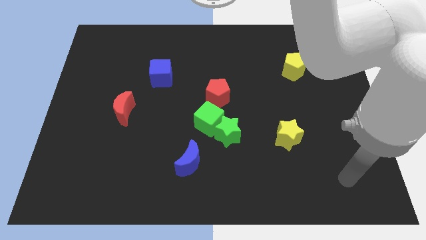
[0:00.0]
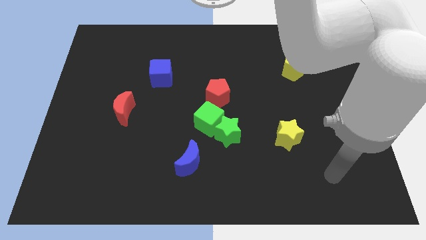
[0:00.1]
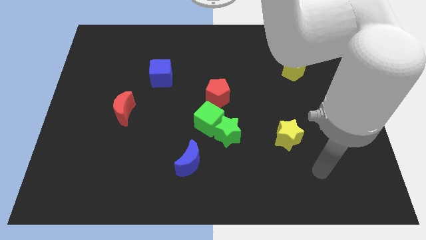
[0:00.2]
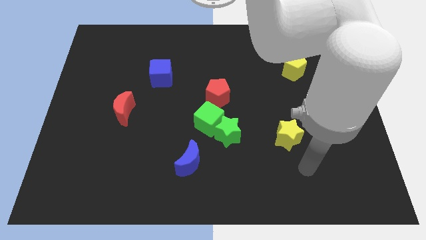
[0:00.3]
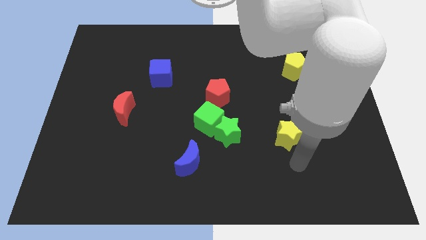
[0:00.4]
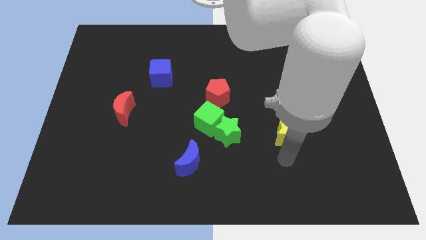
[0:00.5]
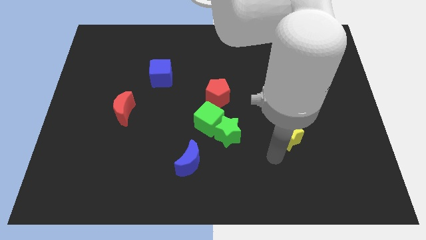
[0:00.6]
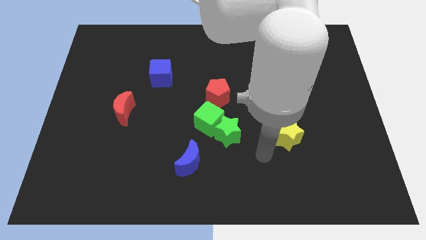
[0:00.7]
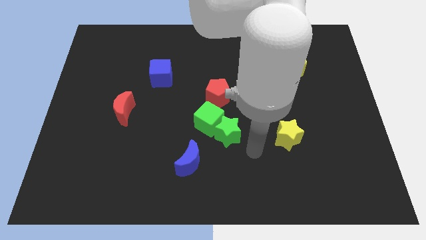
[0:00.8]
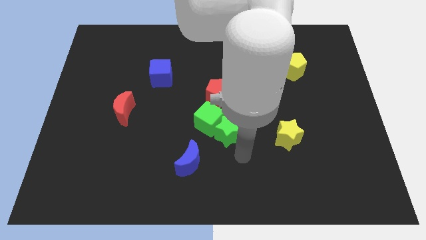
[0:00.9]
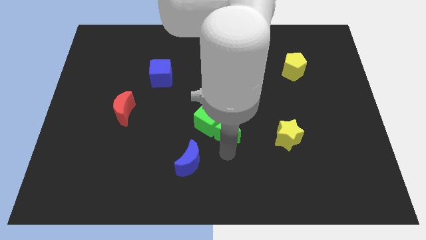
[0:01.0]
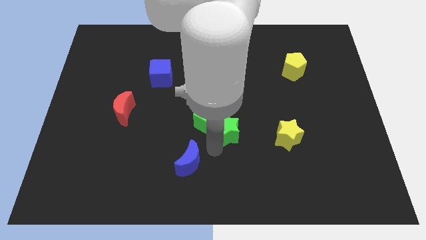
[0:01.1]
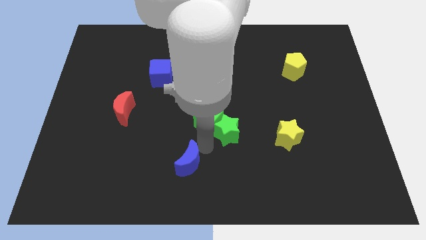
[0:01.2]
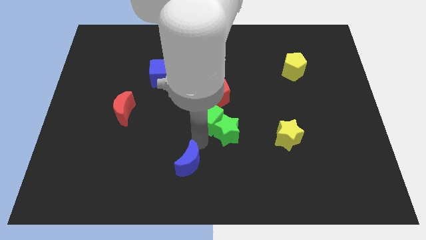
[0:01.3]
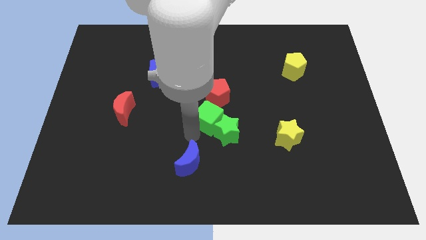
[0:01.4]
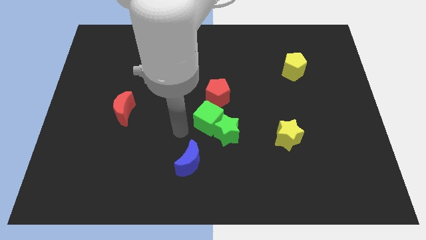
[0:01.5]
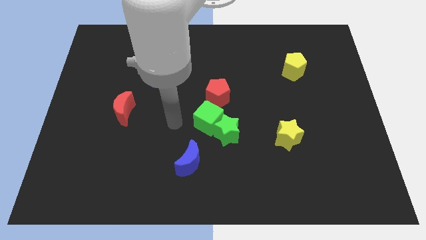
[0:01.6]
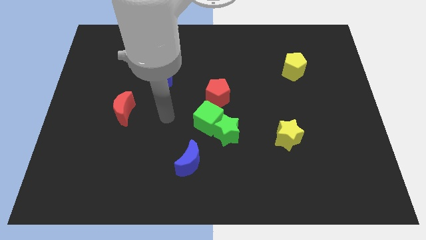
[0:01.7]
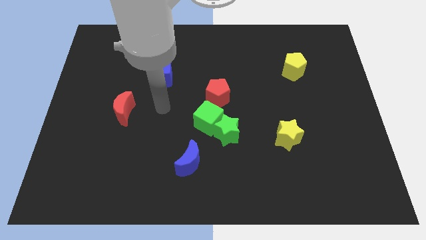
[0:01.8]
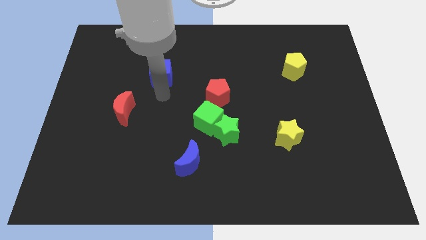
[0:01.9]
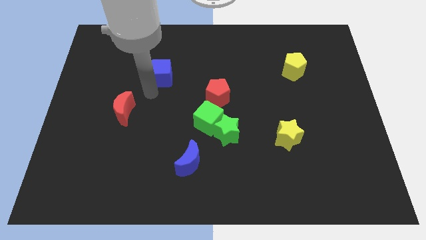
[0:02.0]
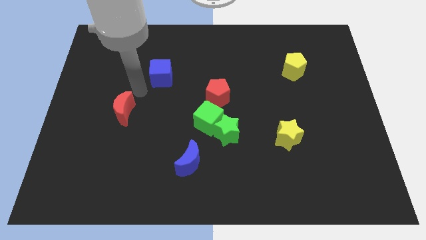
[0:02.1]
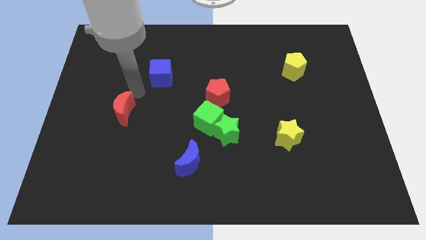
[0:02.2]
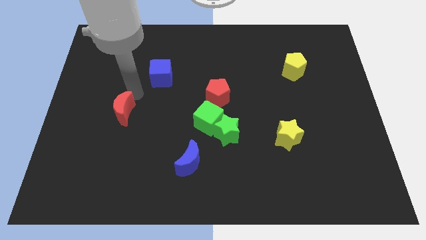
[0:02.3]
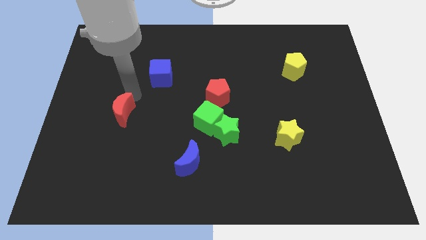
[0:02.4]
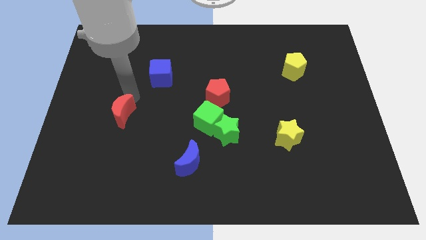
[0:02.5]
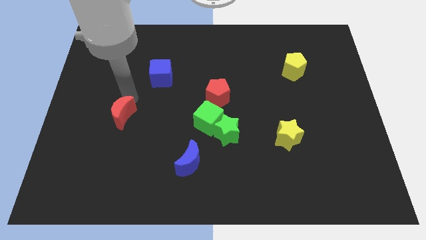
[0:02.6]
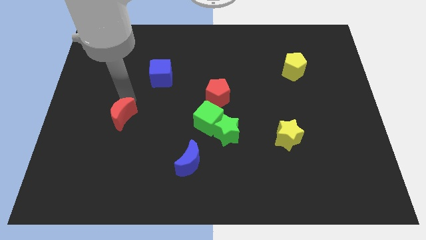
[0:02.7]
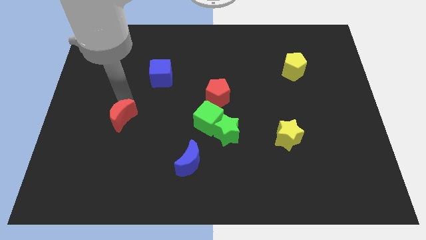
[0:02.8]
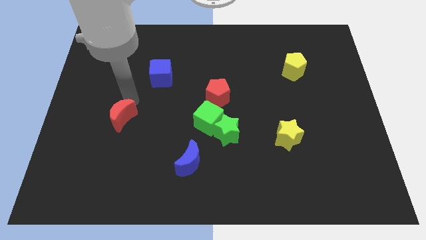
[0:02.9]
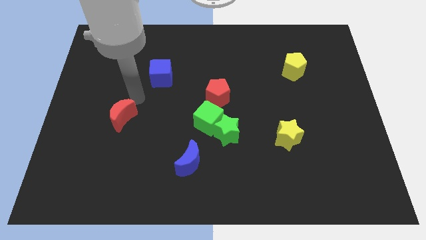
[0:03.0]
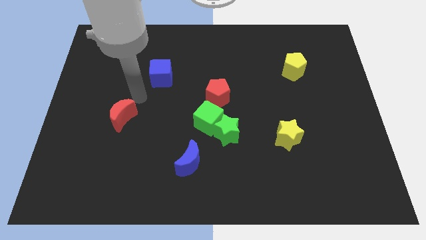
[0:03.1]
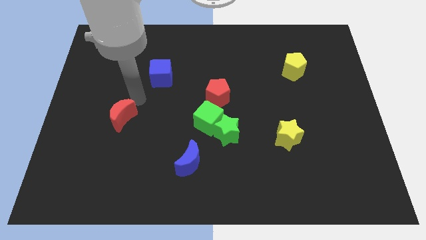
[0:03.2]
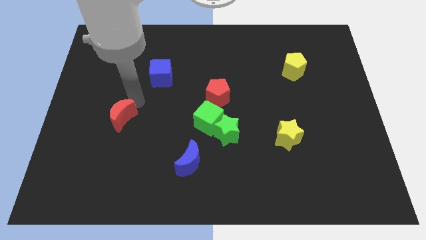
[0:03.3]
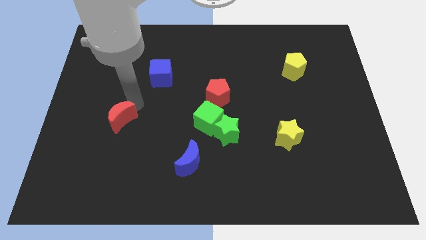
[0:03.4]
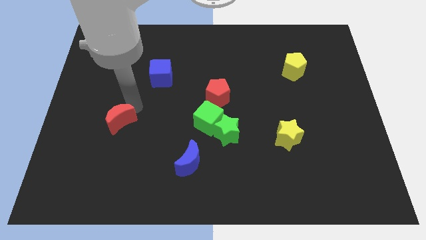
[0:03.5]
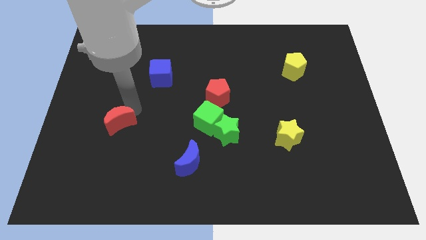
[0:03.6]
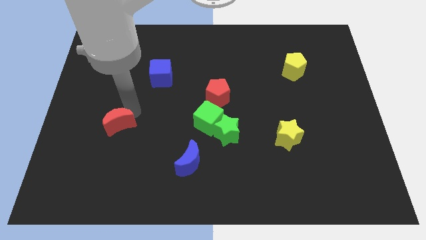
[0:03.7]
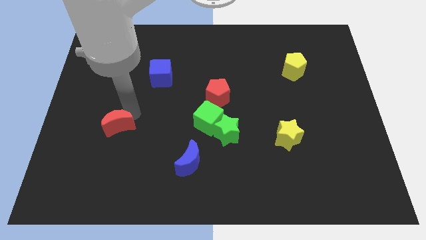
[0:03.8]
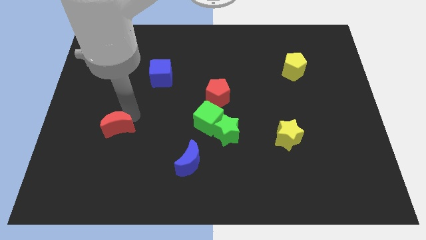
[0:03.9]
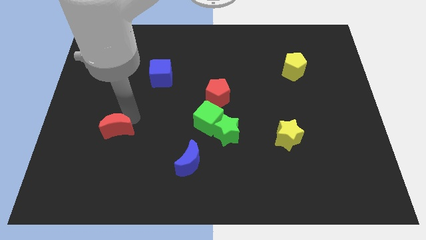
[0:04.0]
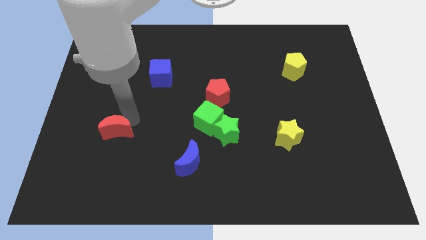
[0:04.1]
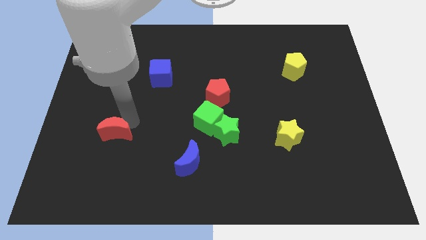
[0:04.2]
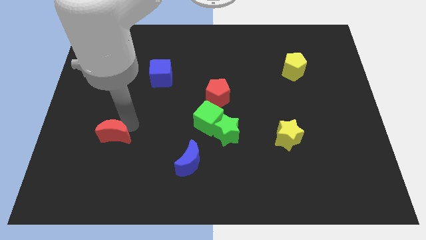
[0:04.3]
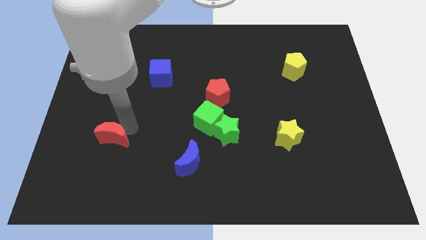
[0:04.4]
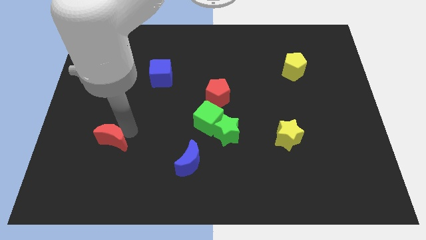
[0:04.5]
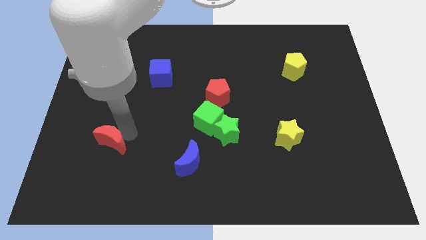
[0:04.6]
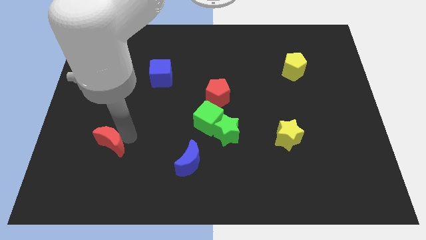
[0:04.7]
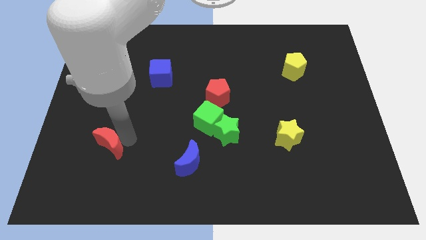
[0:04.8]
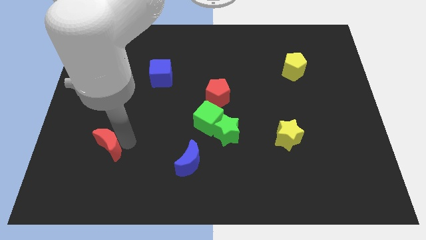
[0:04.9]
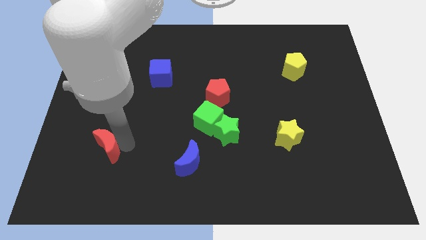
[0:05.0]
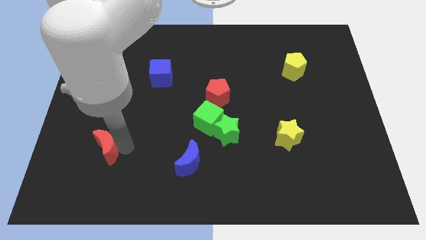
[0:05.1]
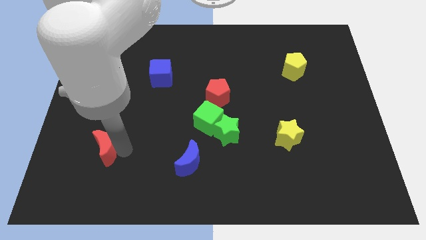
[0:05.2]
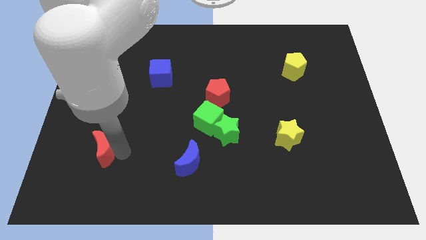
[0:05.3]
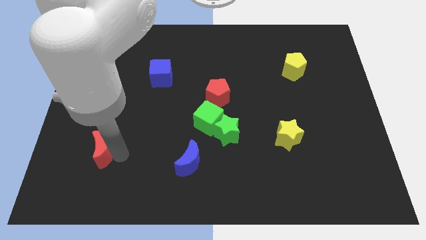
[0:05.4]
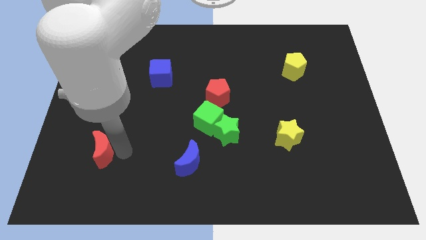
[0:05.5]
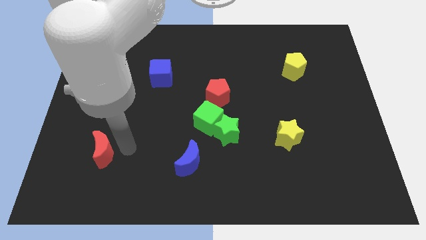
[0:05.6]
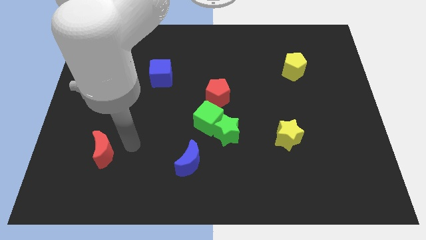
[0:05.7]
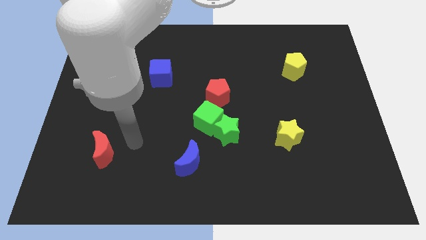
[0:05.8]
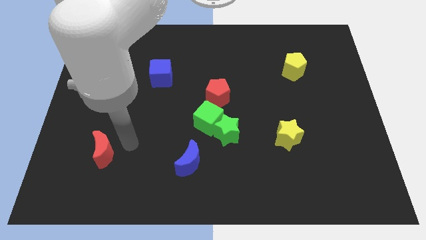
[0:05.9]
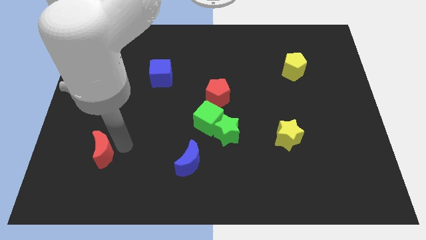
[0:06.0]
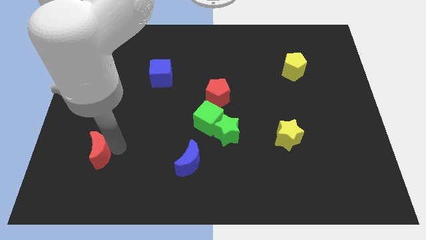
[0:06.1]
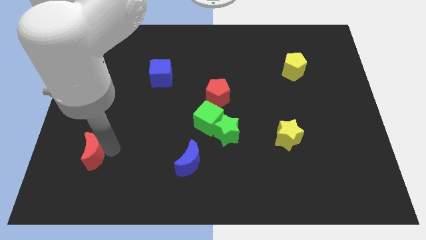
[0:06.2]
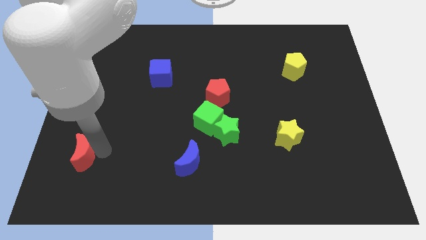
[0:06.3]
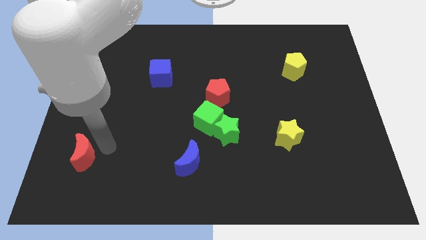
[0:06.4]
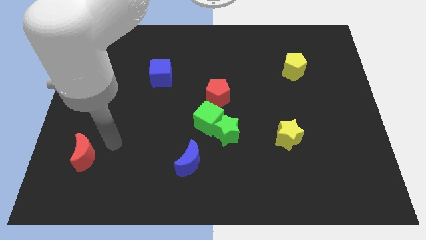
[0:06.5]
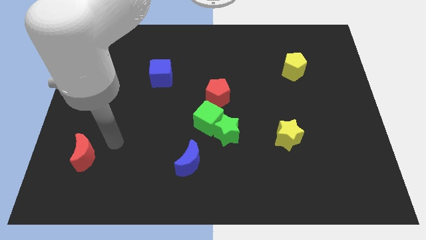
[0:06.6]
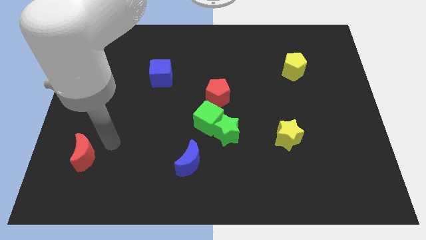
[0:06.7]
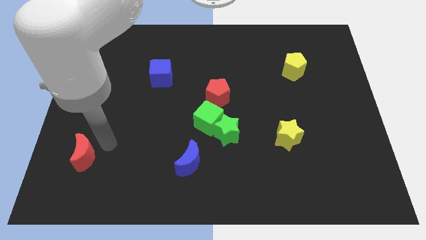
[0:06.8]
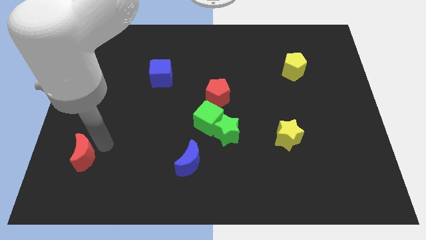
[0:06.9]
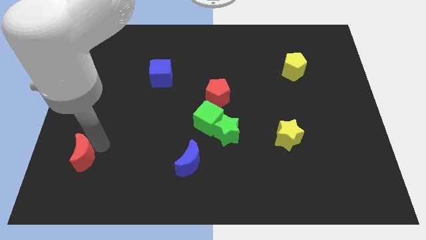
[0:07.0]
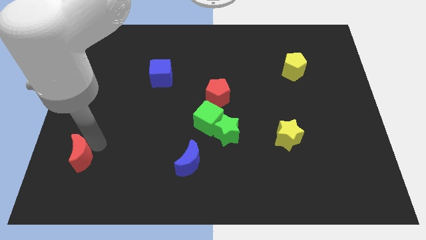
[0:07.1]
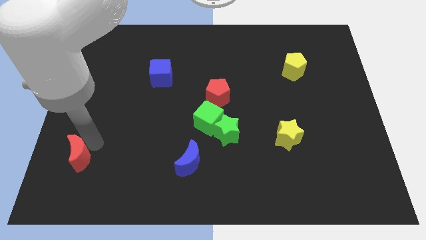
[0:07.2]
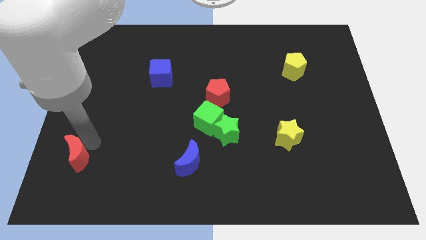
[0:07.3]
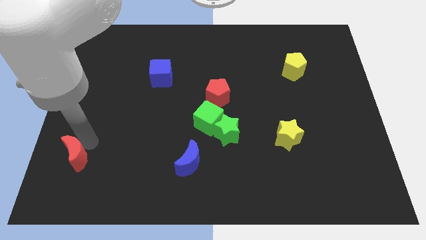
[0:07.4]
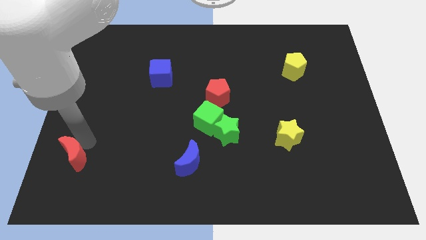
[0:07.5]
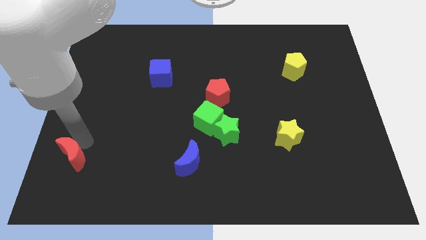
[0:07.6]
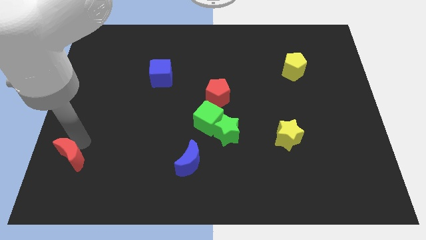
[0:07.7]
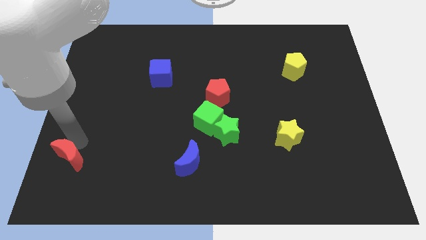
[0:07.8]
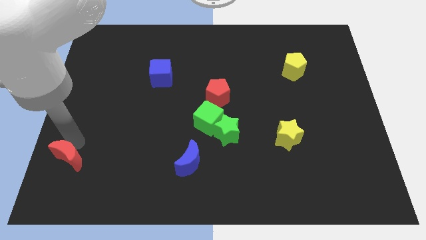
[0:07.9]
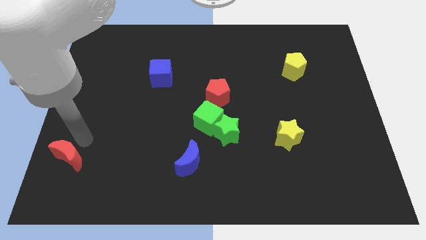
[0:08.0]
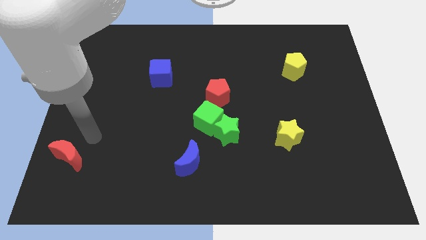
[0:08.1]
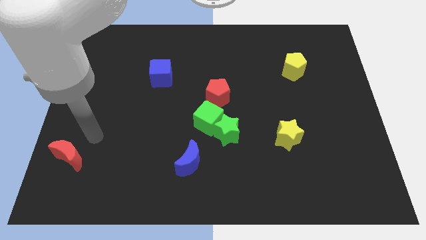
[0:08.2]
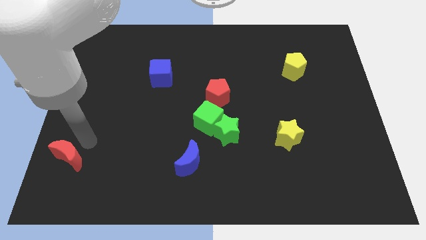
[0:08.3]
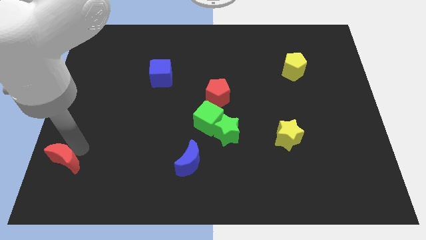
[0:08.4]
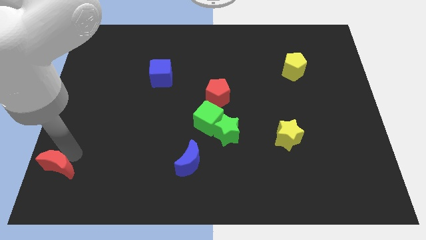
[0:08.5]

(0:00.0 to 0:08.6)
slide the red moon to the bottom left
